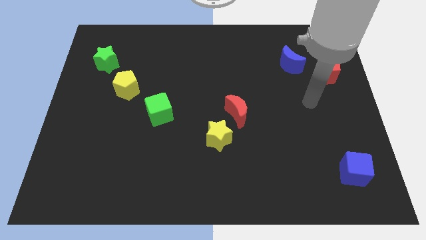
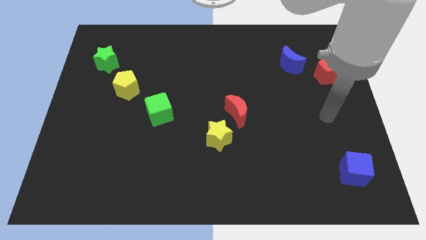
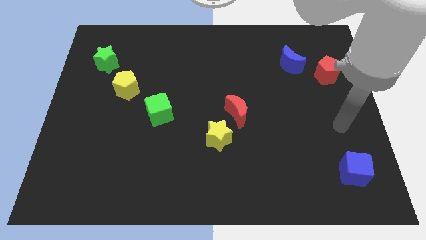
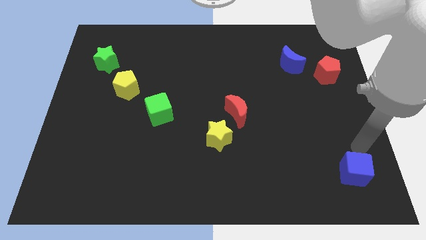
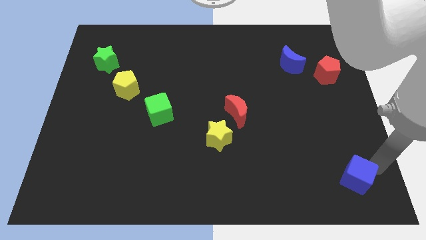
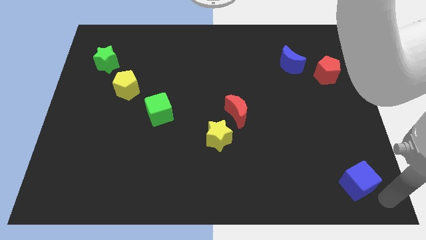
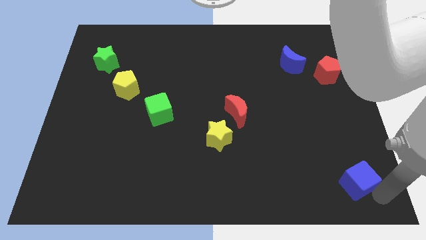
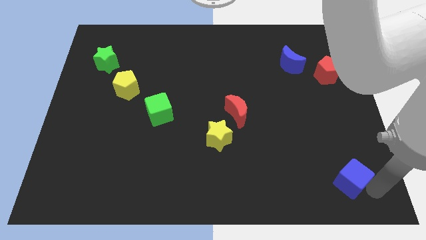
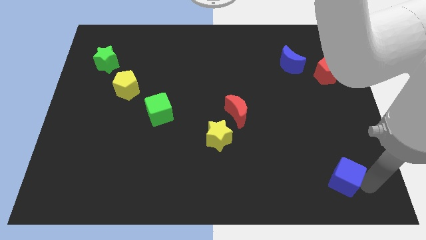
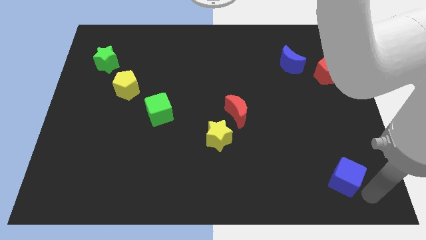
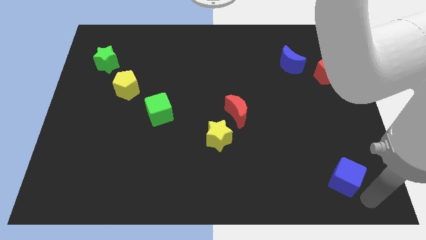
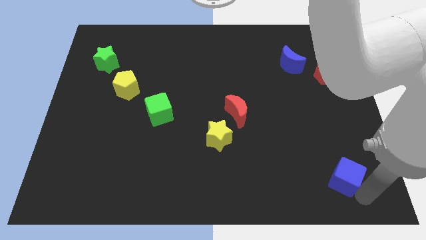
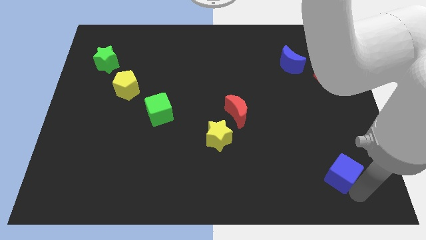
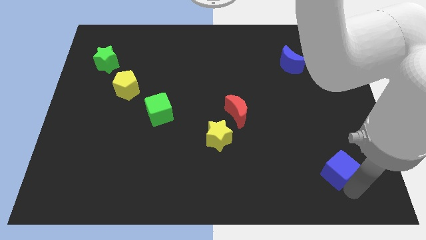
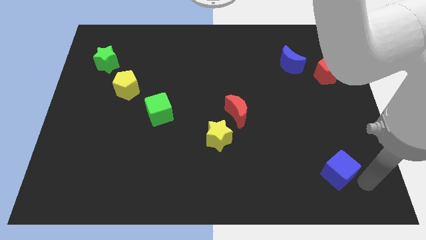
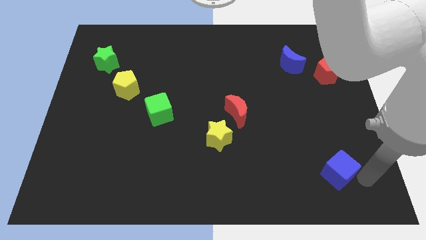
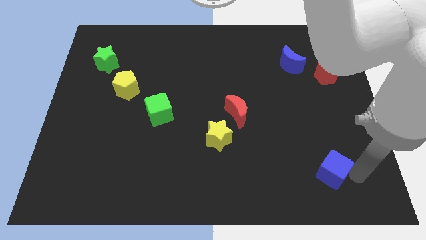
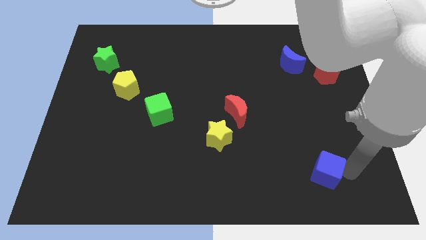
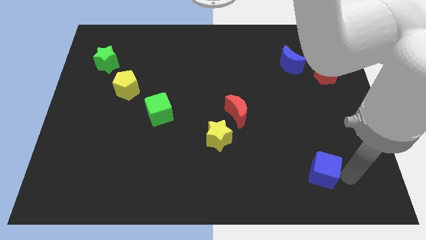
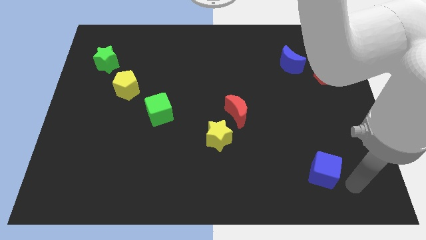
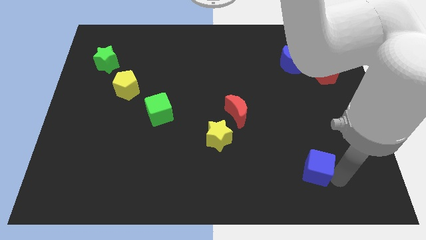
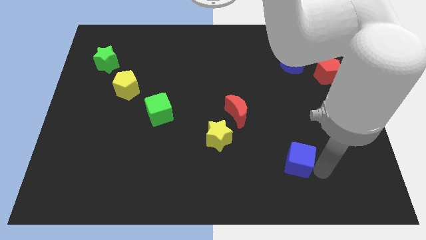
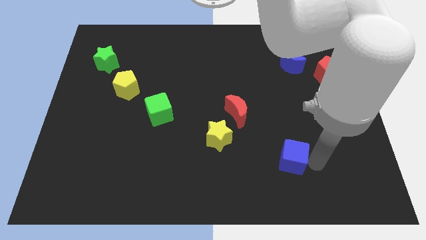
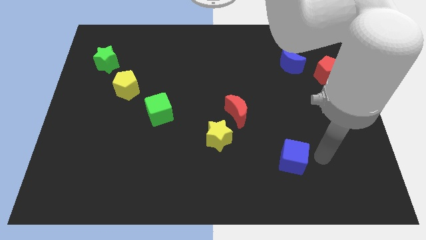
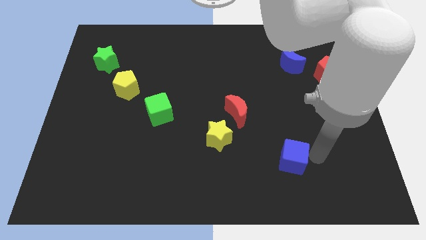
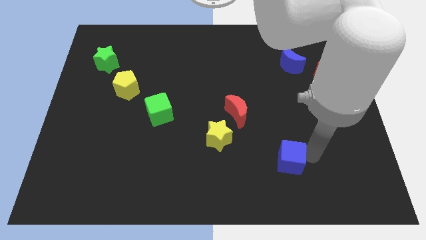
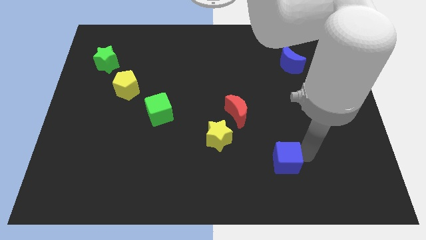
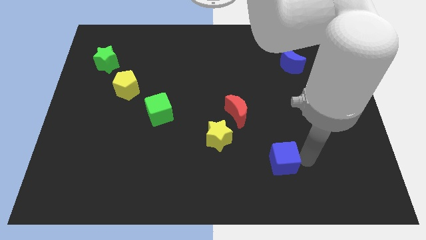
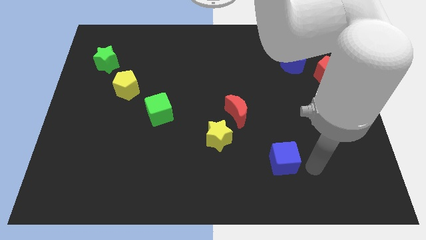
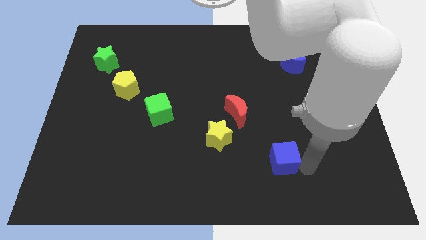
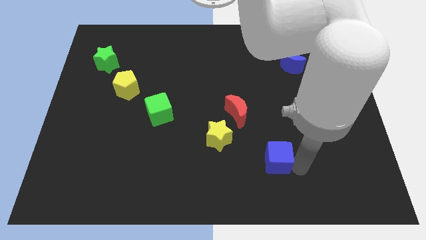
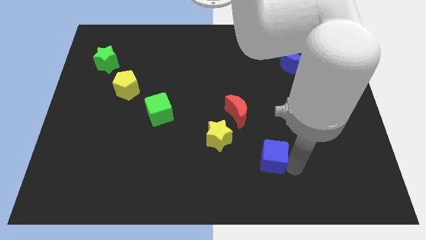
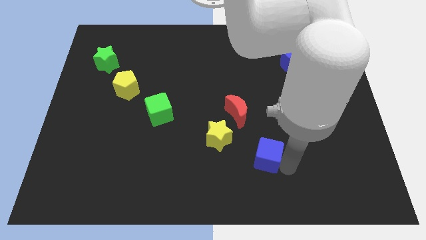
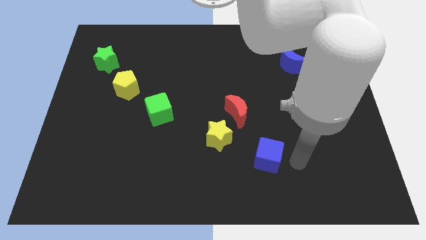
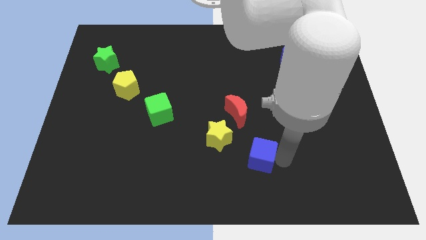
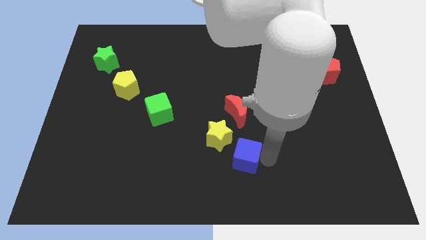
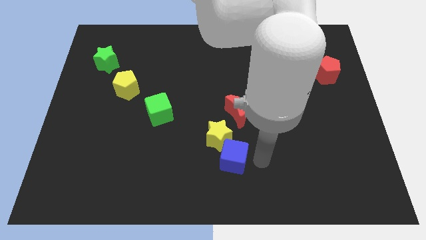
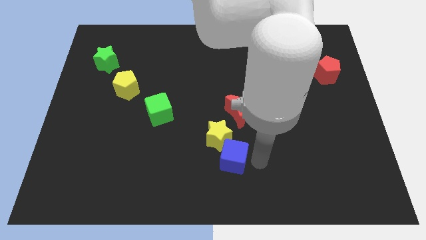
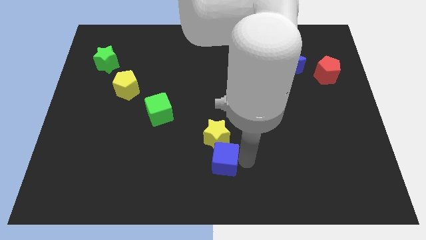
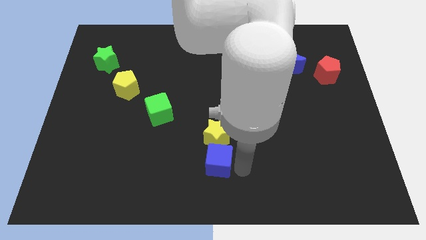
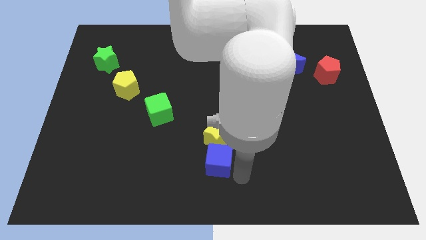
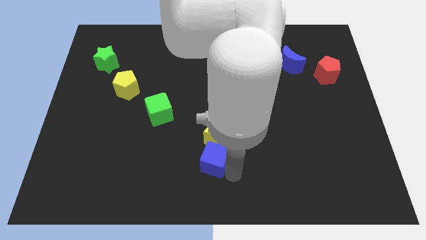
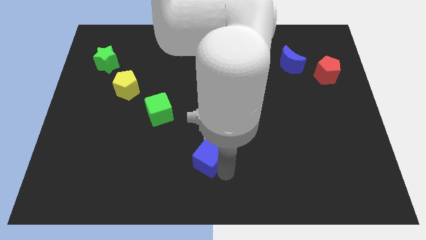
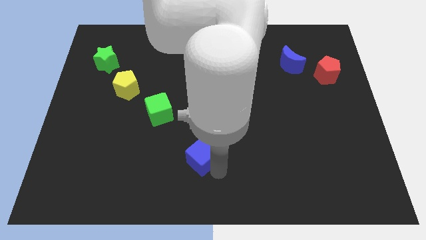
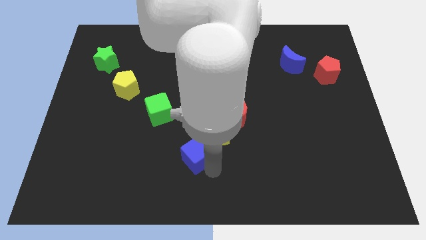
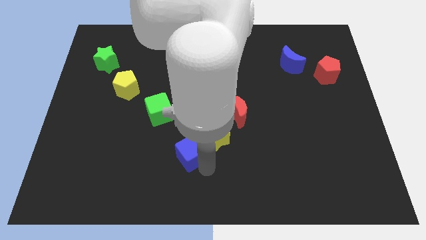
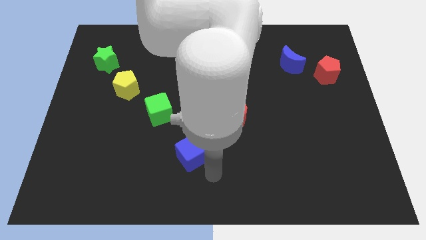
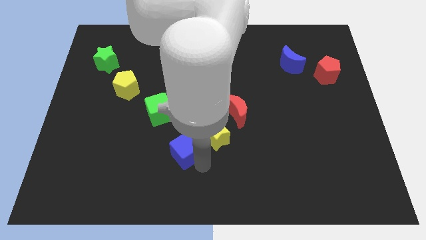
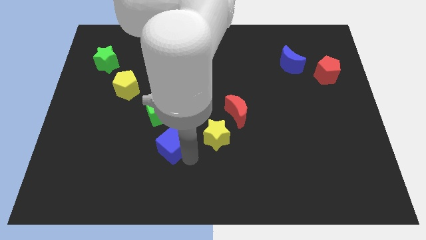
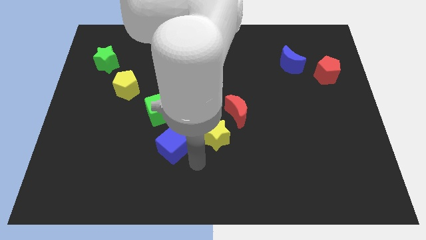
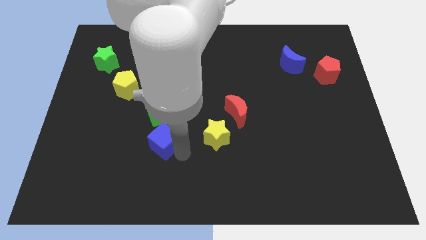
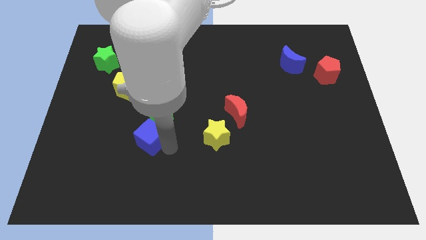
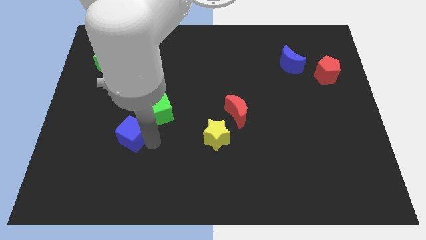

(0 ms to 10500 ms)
put the blue cube to the bottom side of the yellow pentagon

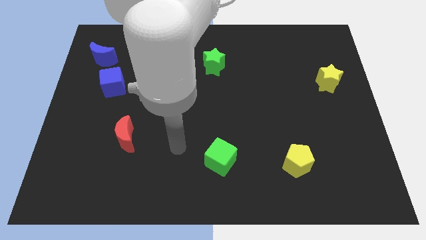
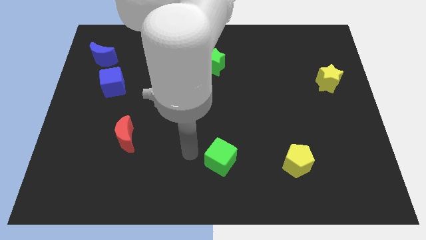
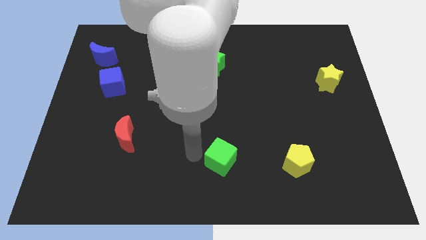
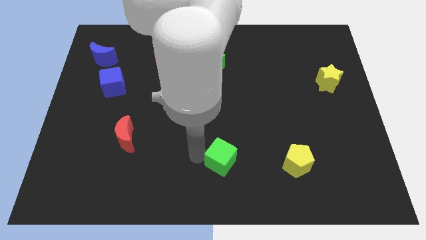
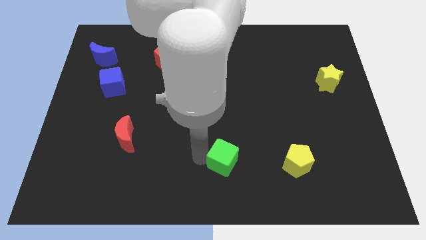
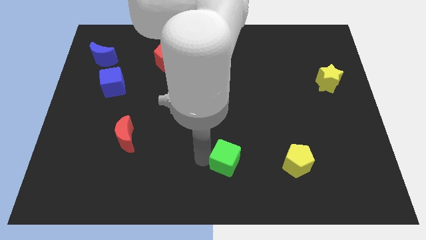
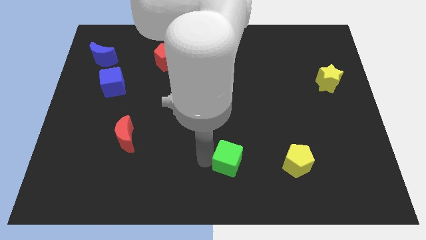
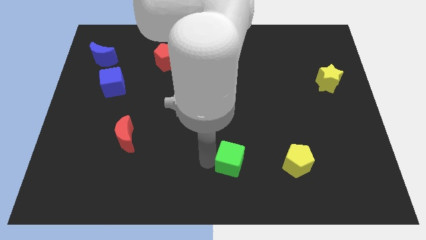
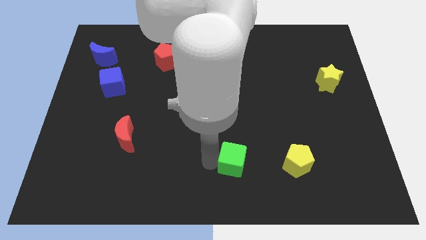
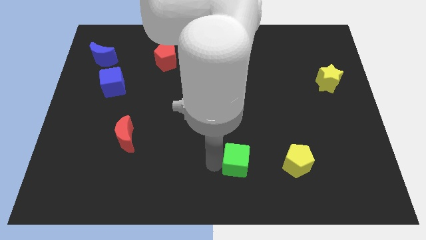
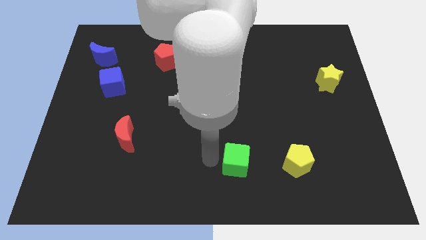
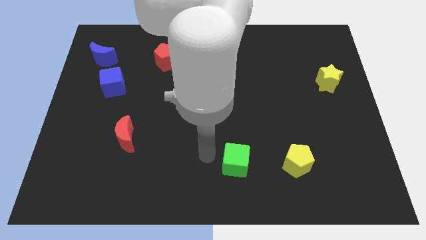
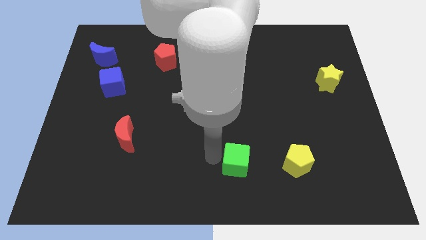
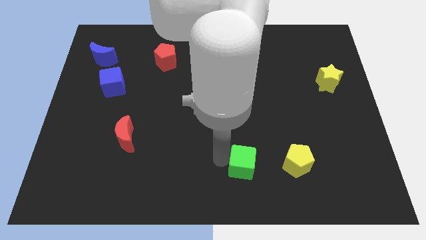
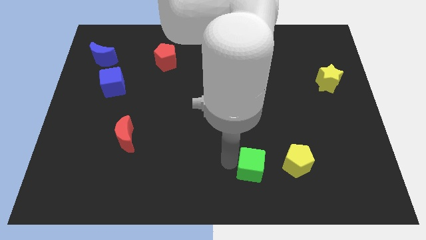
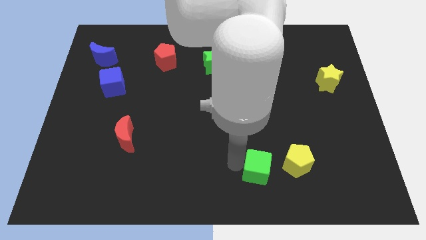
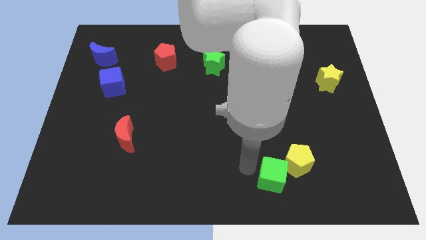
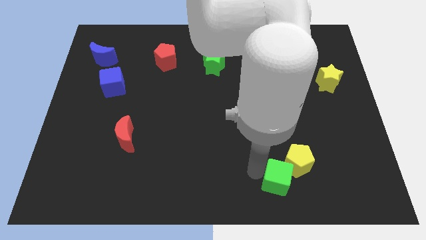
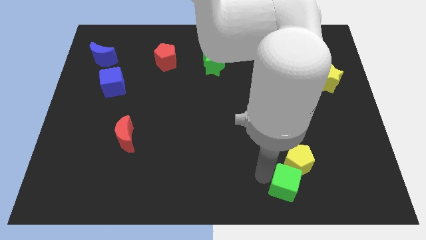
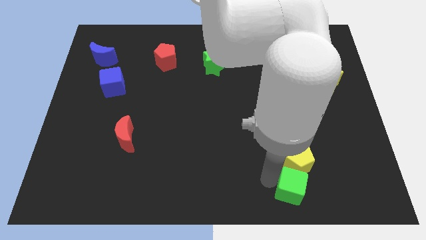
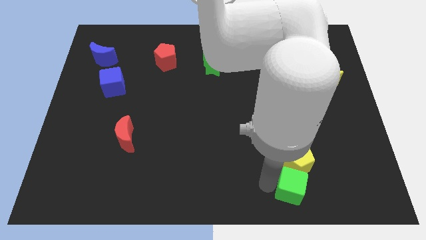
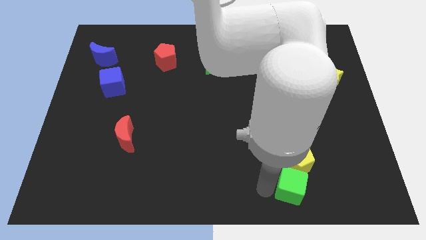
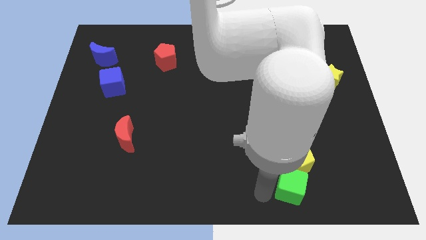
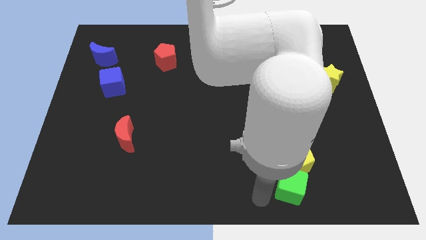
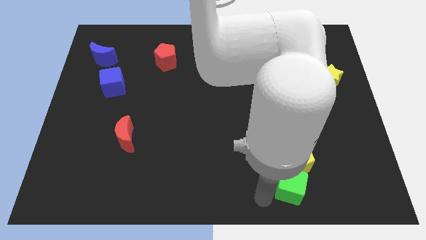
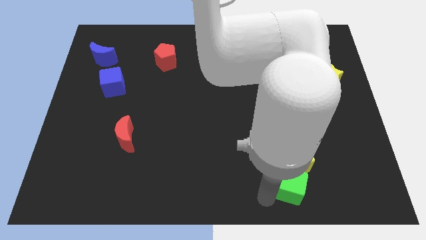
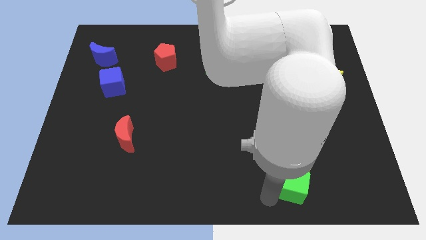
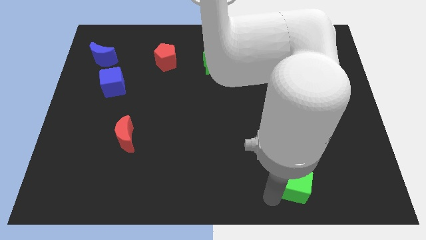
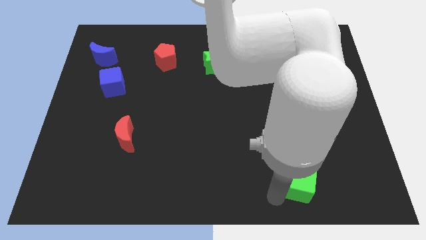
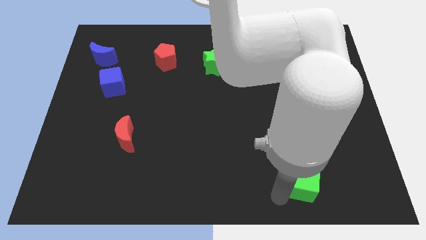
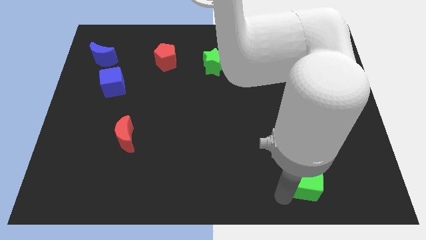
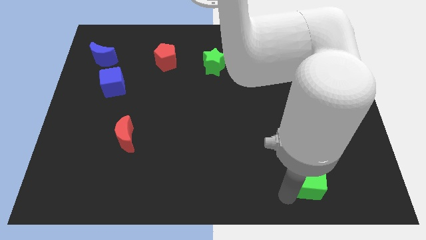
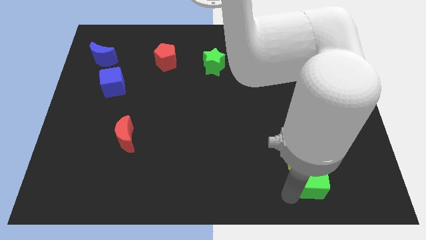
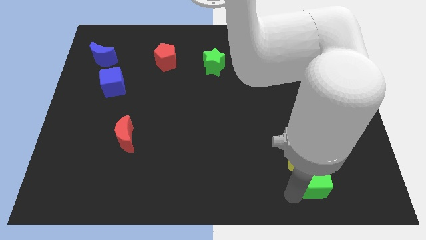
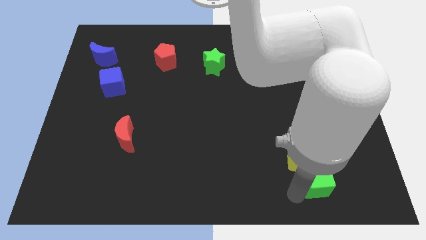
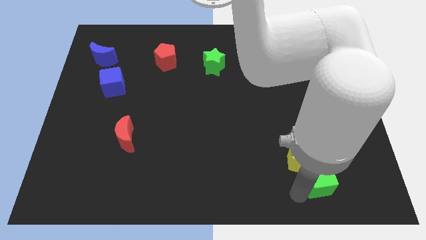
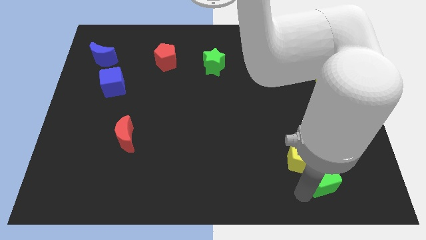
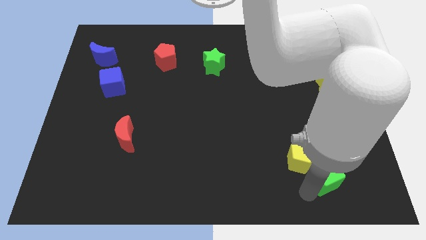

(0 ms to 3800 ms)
put the green cube to the right side of the yellow pentagon
